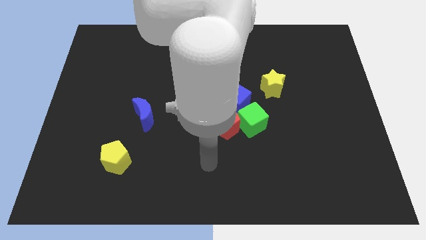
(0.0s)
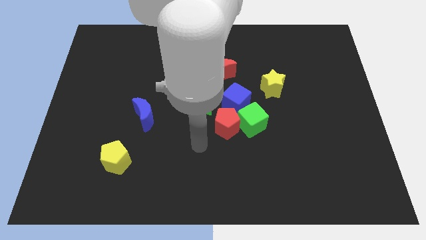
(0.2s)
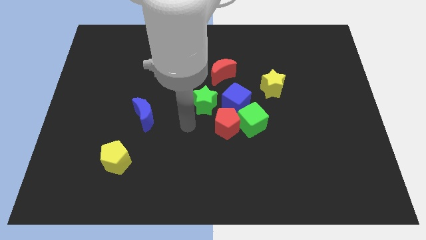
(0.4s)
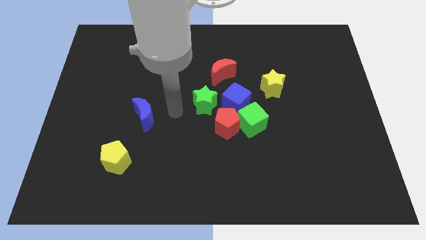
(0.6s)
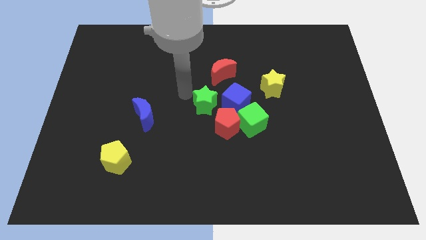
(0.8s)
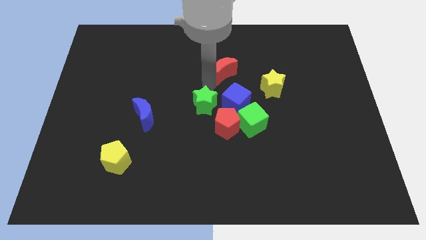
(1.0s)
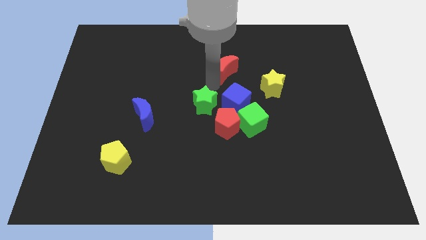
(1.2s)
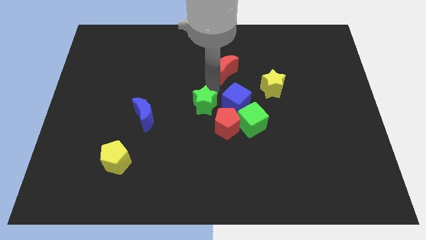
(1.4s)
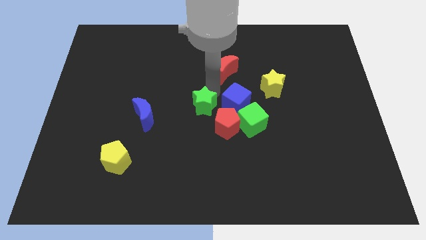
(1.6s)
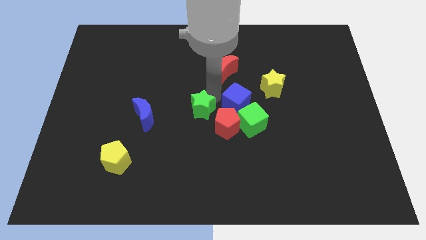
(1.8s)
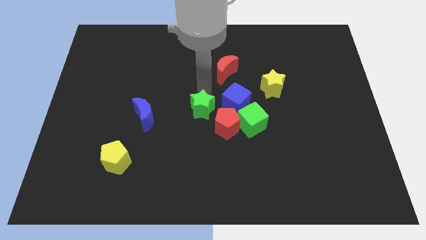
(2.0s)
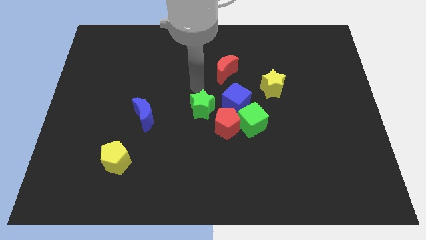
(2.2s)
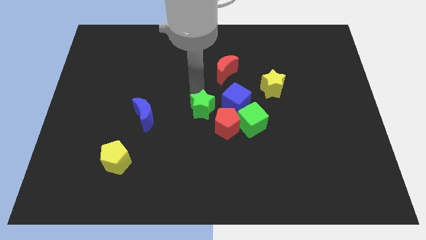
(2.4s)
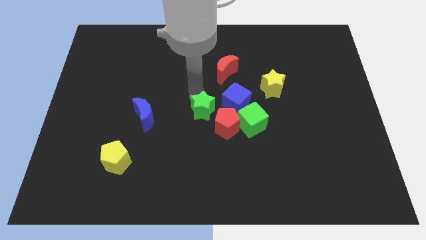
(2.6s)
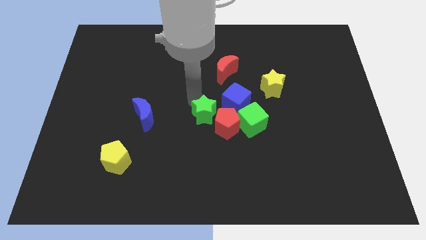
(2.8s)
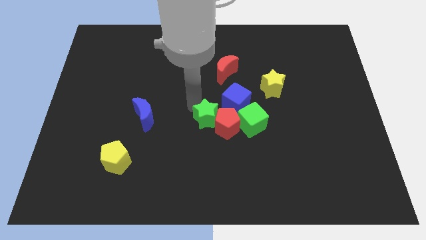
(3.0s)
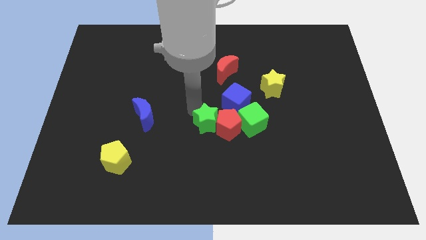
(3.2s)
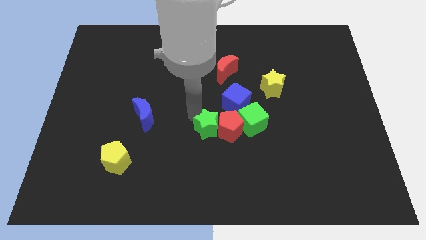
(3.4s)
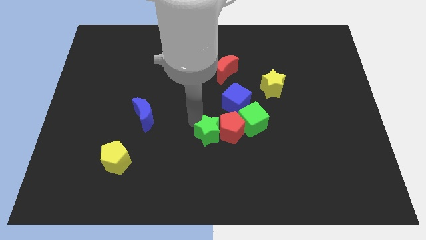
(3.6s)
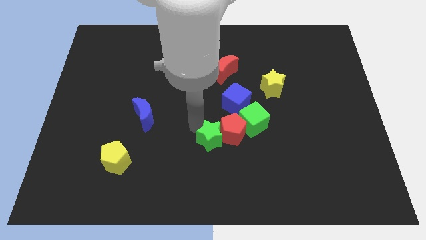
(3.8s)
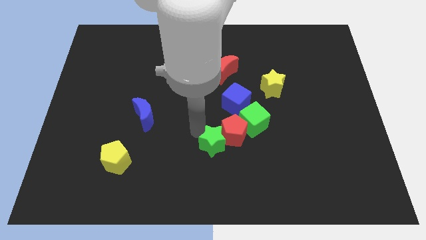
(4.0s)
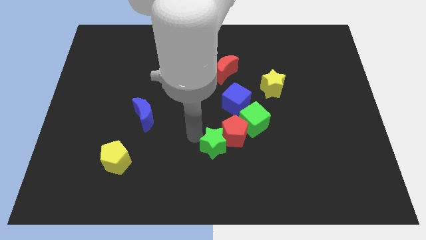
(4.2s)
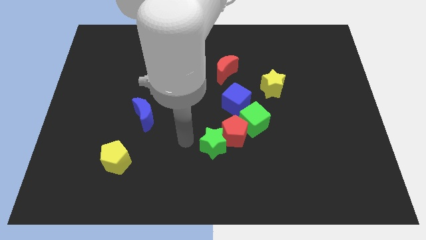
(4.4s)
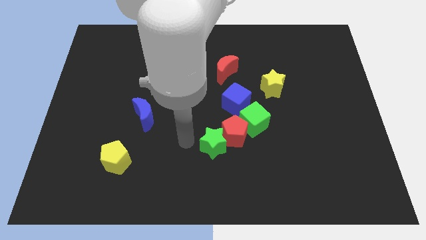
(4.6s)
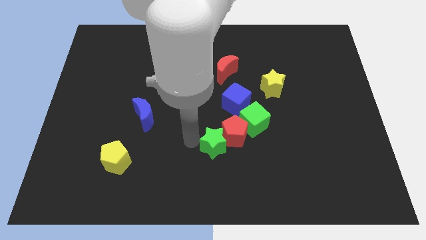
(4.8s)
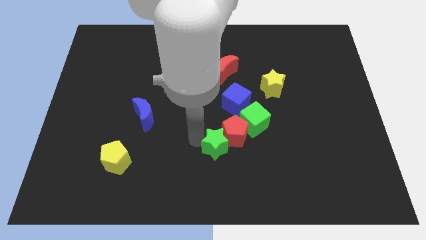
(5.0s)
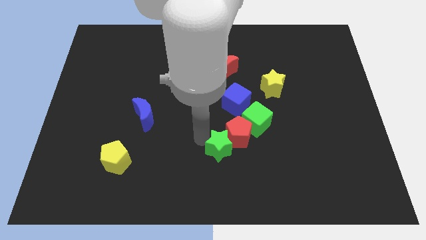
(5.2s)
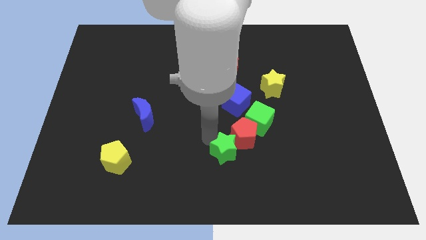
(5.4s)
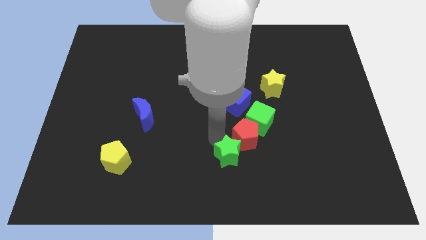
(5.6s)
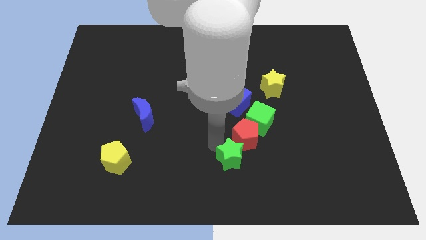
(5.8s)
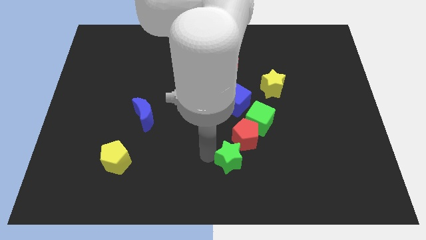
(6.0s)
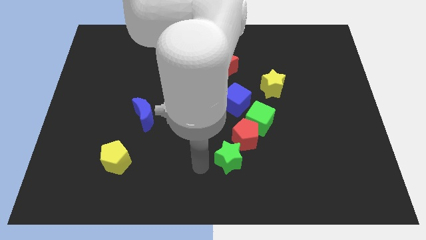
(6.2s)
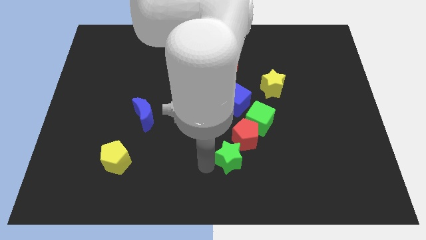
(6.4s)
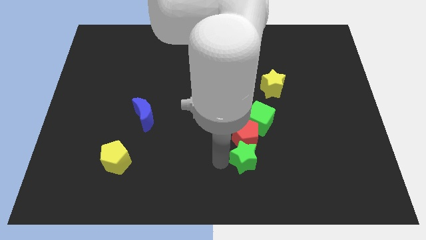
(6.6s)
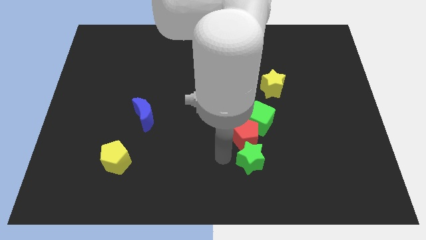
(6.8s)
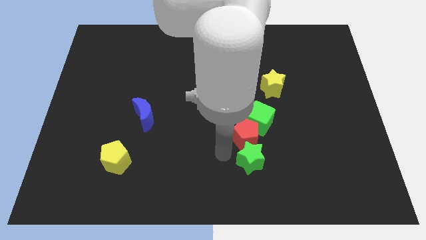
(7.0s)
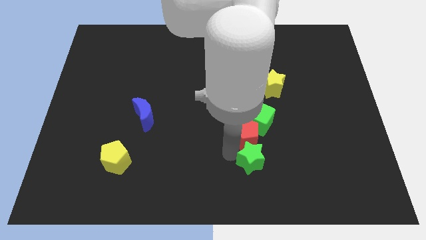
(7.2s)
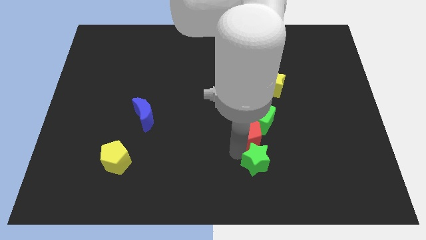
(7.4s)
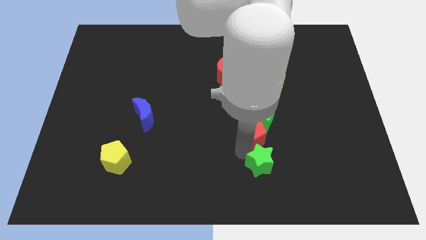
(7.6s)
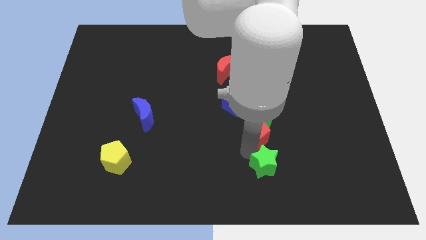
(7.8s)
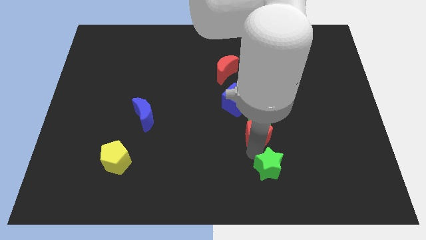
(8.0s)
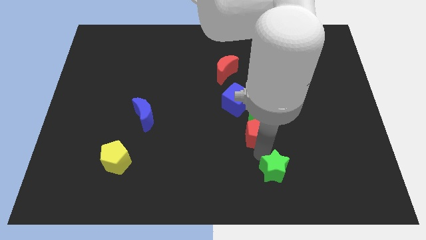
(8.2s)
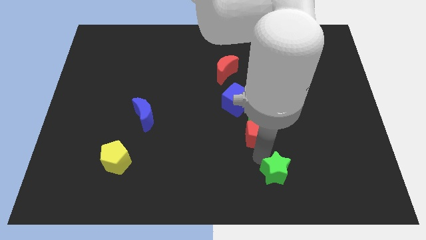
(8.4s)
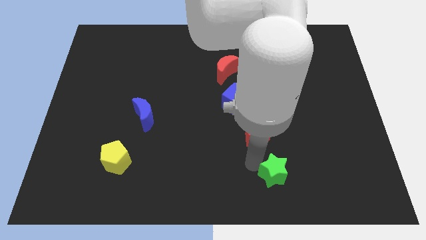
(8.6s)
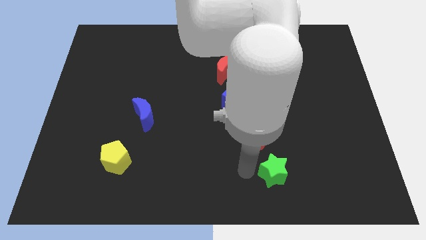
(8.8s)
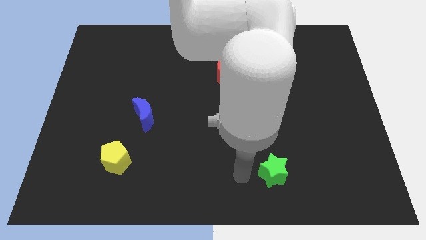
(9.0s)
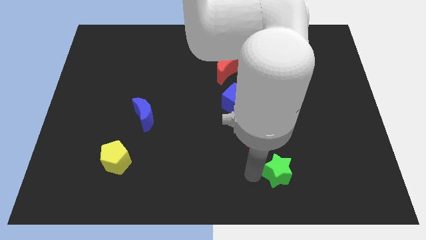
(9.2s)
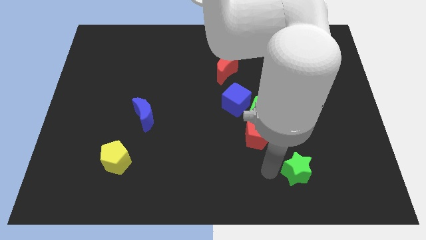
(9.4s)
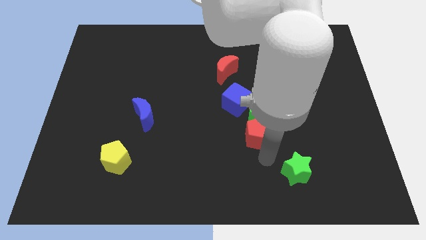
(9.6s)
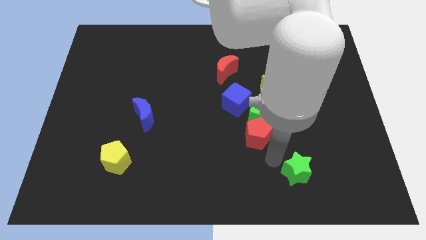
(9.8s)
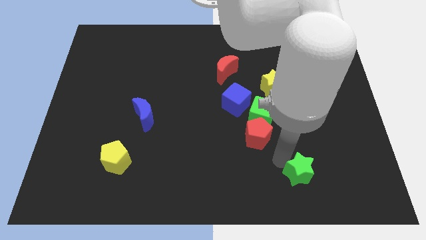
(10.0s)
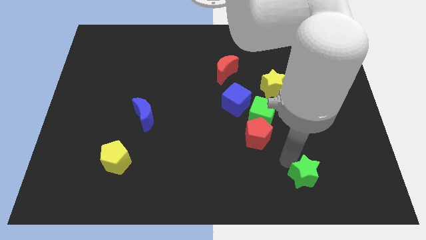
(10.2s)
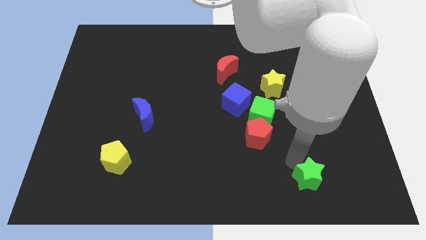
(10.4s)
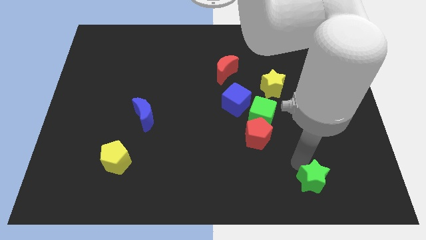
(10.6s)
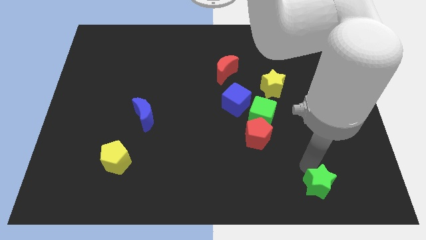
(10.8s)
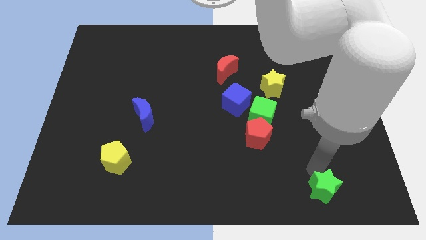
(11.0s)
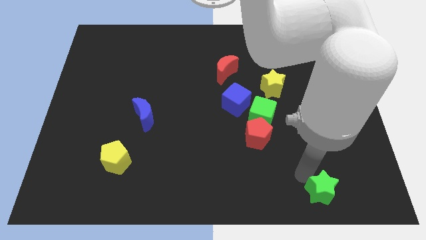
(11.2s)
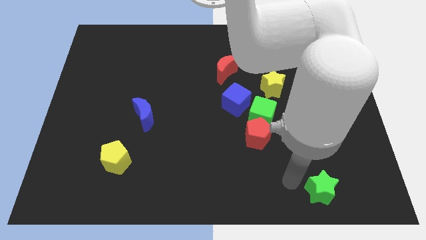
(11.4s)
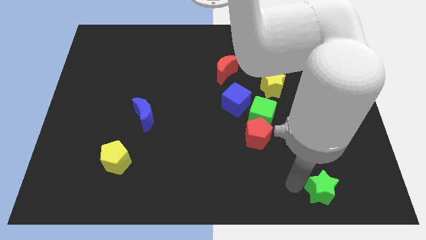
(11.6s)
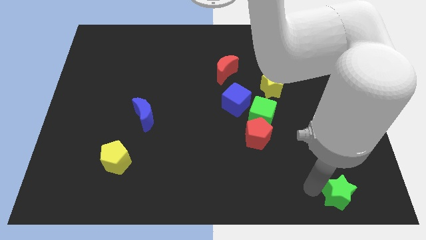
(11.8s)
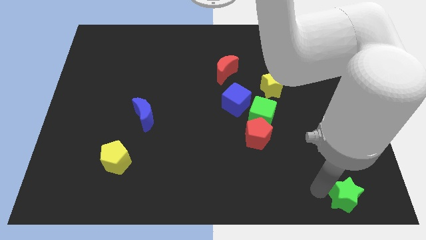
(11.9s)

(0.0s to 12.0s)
slide the green star to the lower right corner

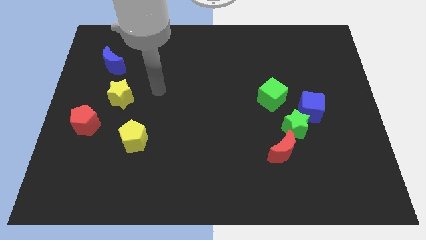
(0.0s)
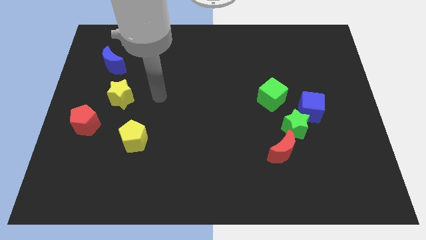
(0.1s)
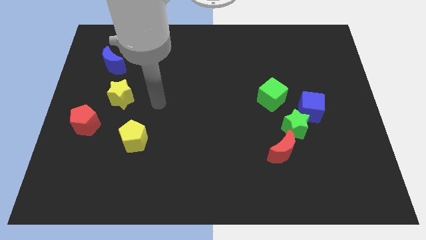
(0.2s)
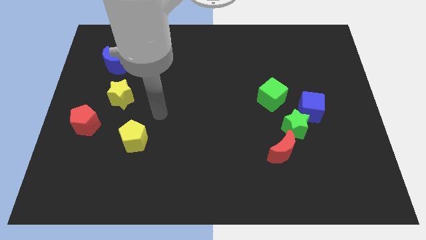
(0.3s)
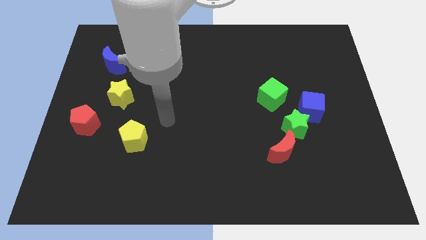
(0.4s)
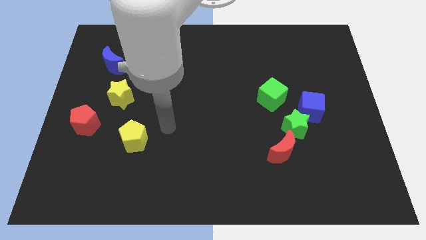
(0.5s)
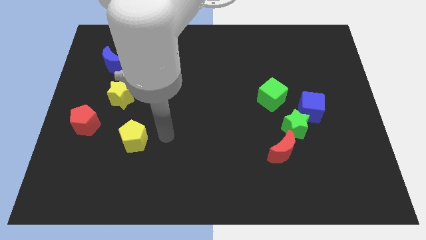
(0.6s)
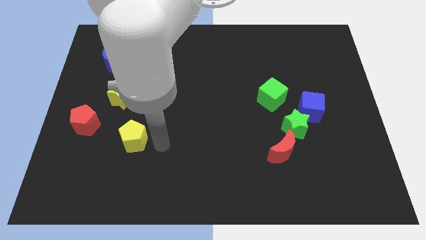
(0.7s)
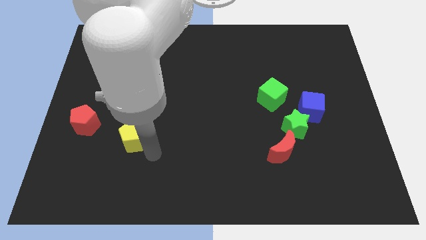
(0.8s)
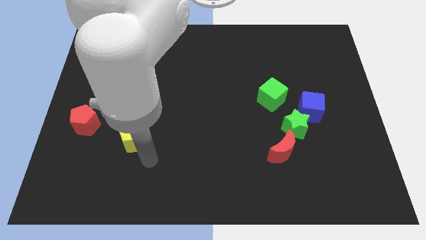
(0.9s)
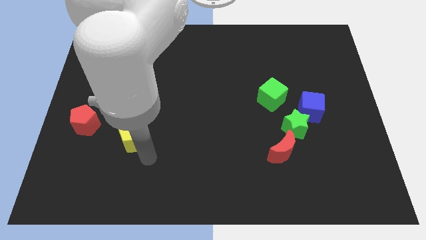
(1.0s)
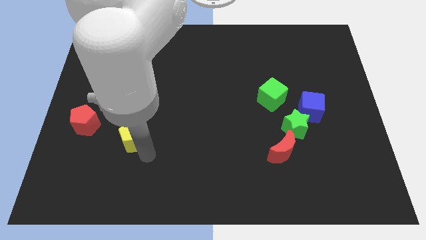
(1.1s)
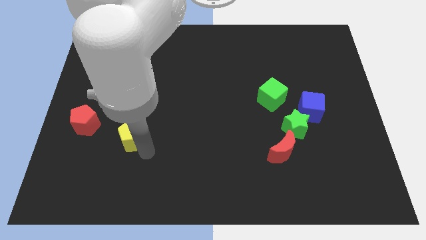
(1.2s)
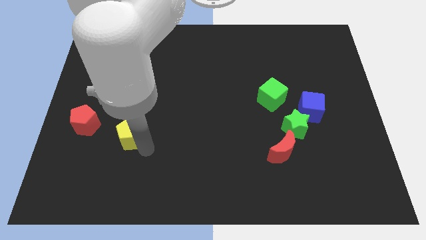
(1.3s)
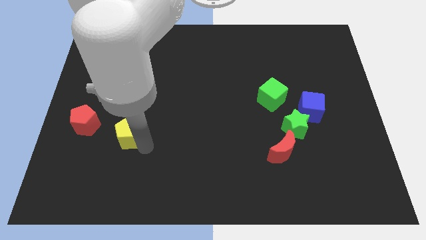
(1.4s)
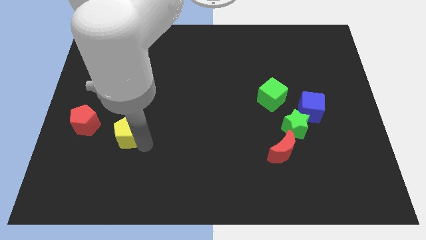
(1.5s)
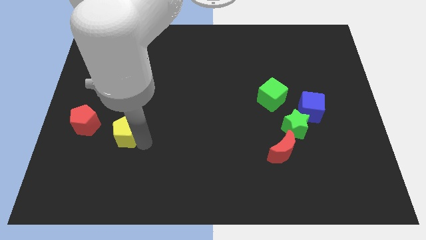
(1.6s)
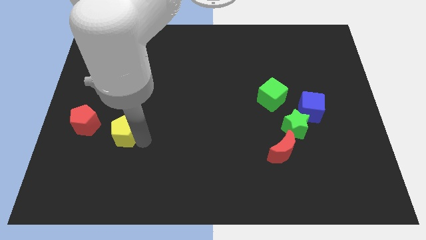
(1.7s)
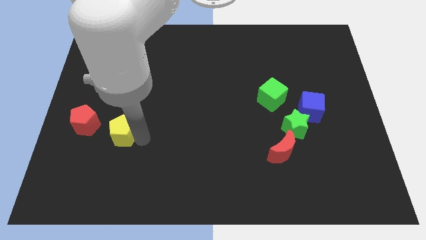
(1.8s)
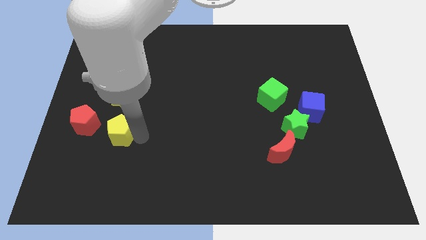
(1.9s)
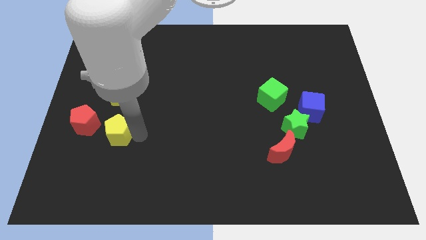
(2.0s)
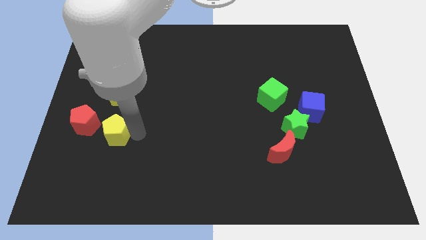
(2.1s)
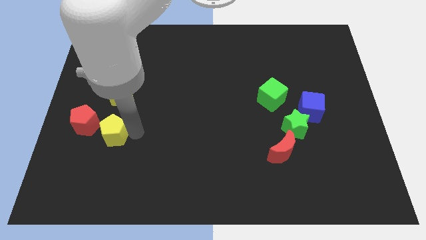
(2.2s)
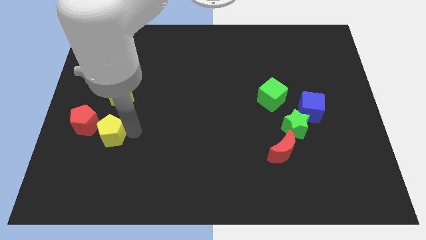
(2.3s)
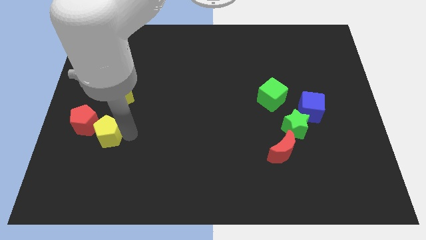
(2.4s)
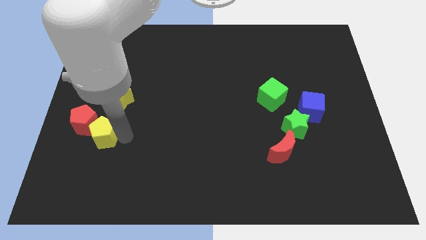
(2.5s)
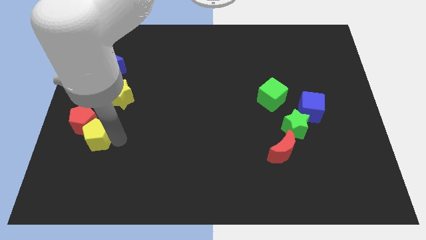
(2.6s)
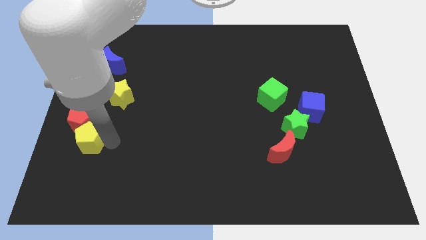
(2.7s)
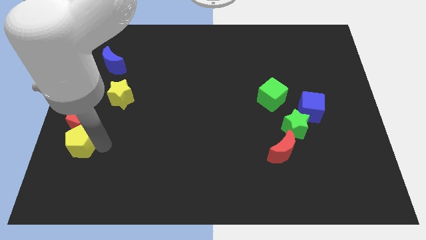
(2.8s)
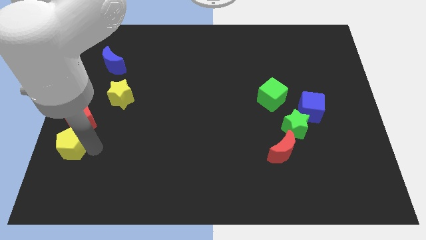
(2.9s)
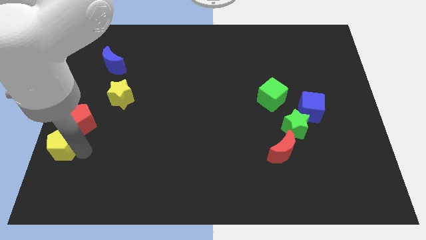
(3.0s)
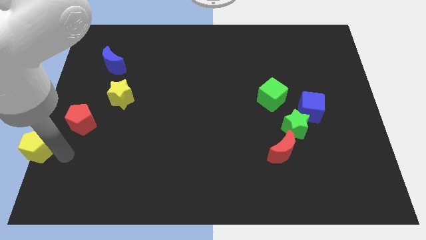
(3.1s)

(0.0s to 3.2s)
move the yellow pentagon to the left side
